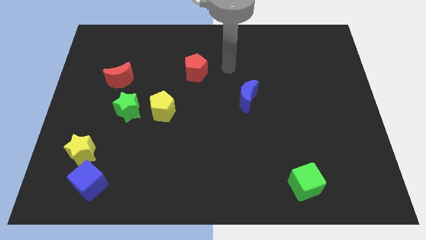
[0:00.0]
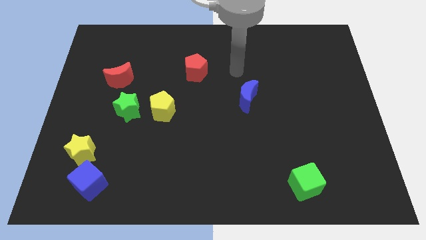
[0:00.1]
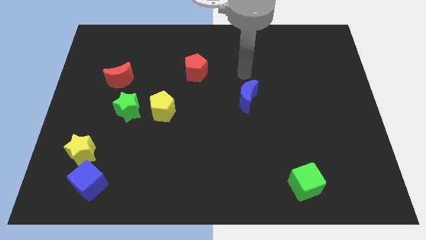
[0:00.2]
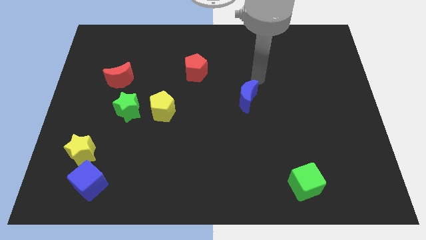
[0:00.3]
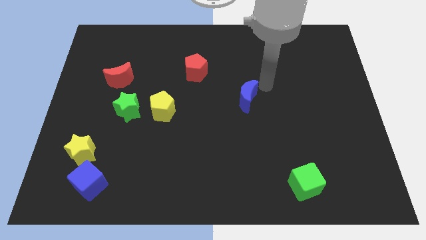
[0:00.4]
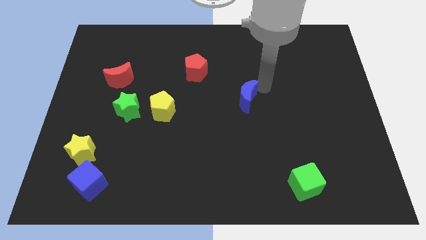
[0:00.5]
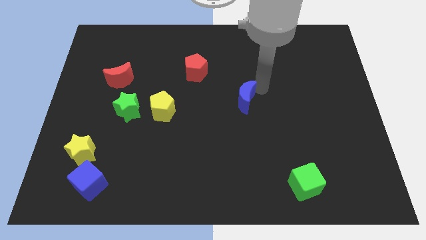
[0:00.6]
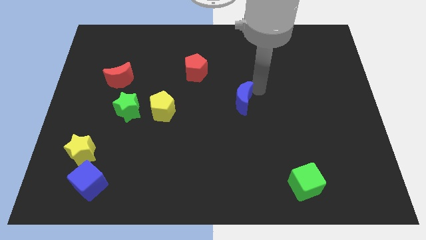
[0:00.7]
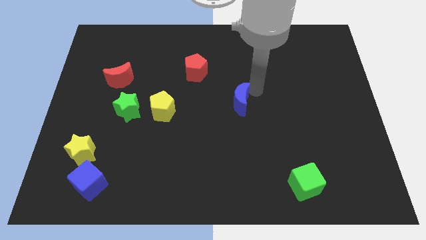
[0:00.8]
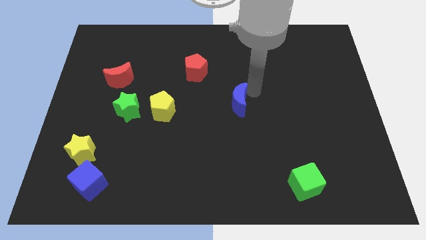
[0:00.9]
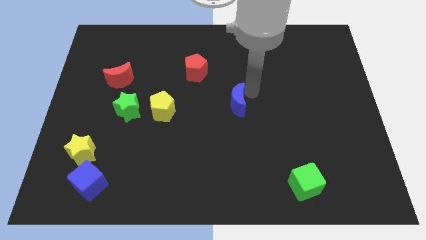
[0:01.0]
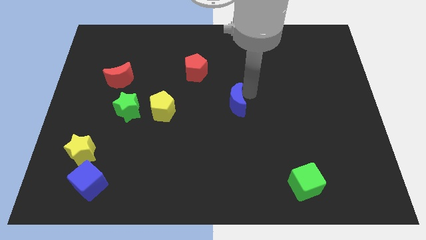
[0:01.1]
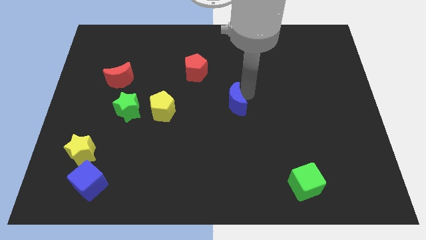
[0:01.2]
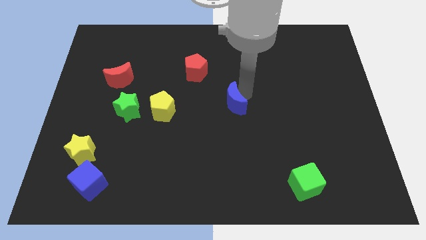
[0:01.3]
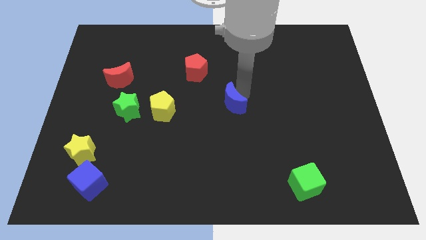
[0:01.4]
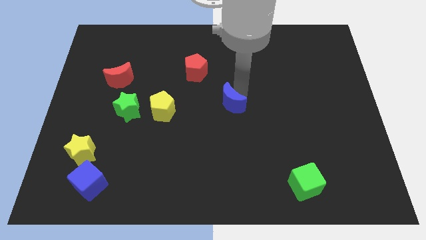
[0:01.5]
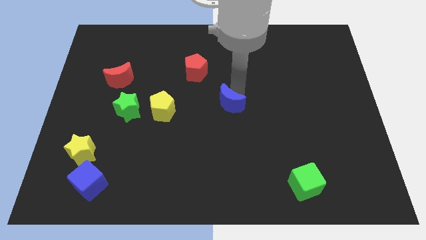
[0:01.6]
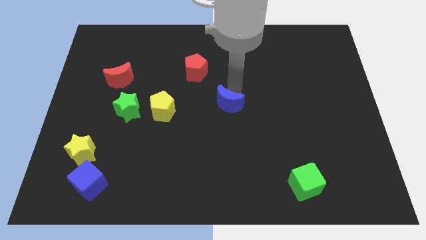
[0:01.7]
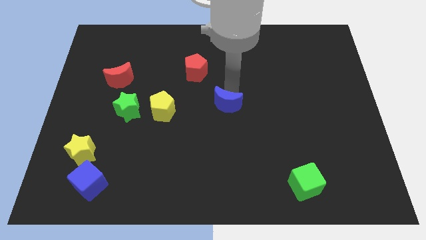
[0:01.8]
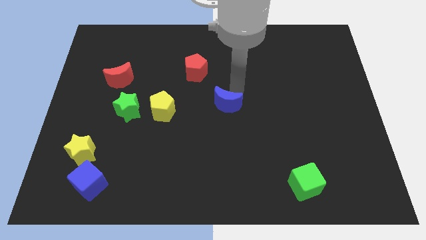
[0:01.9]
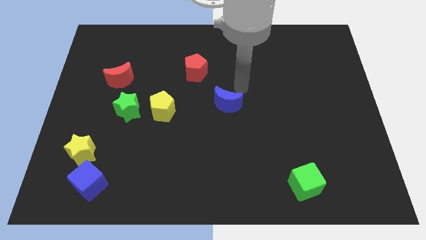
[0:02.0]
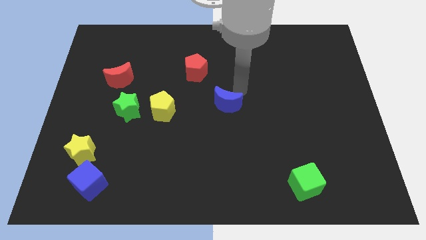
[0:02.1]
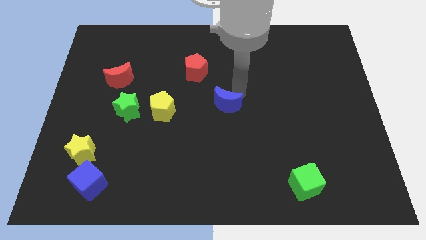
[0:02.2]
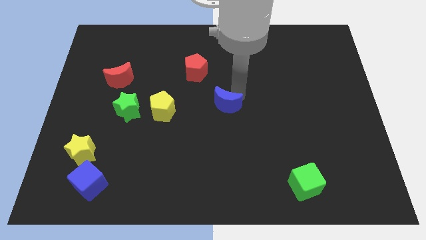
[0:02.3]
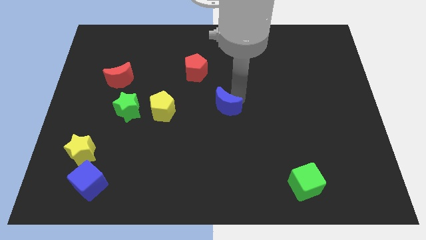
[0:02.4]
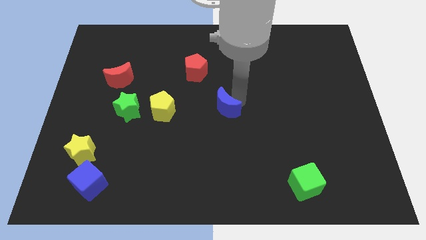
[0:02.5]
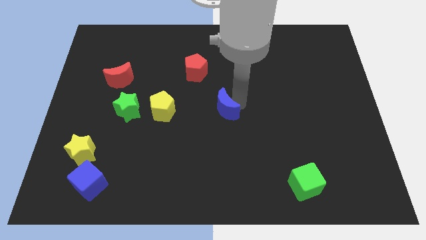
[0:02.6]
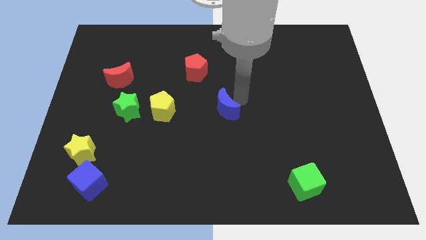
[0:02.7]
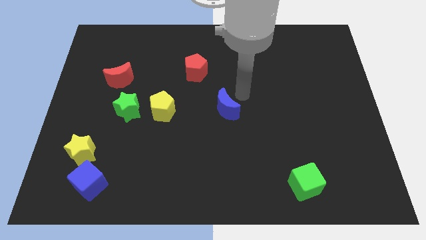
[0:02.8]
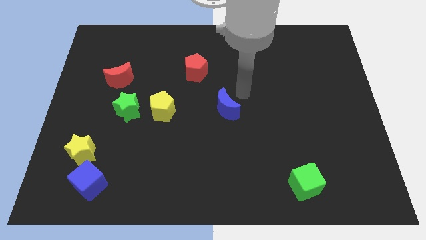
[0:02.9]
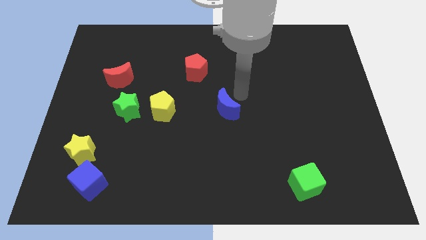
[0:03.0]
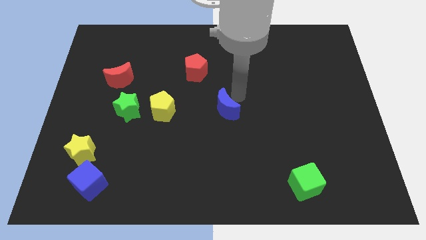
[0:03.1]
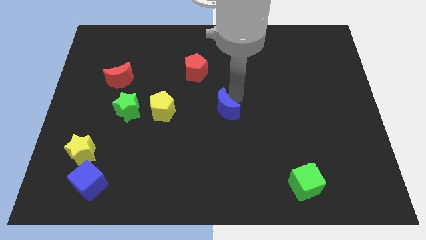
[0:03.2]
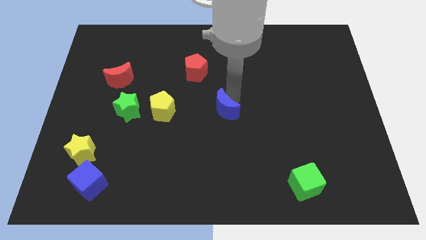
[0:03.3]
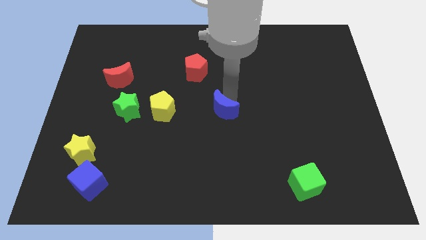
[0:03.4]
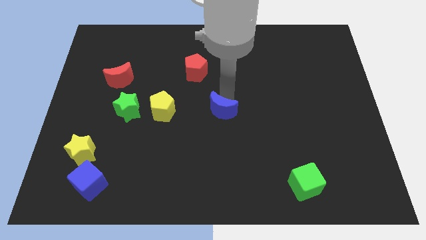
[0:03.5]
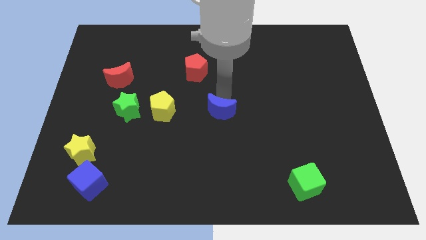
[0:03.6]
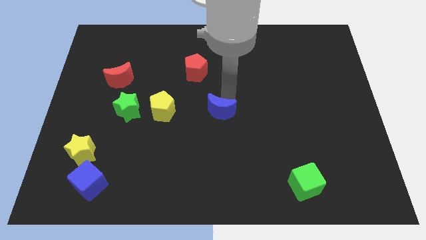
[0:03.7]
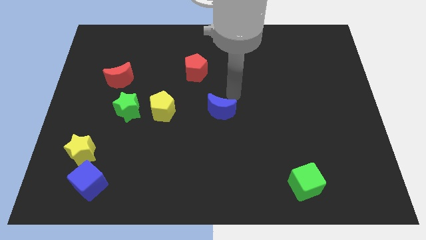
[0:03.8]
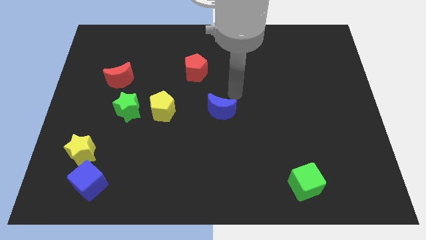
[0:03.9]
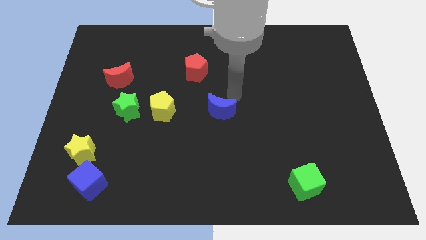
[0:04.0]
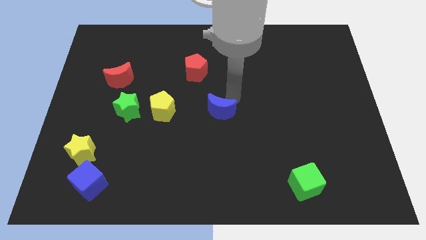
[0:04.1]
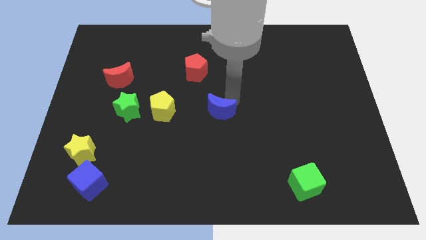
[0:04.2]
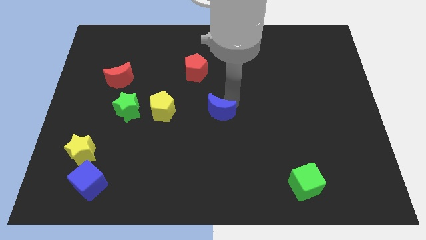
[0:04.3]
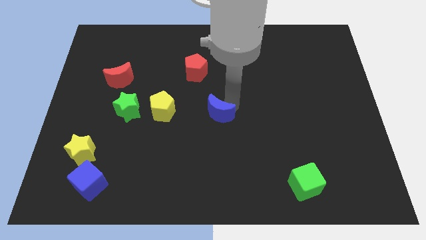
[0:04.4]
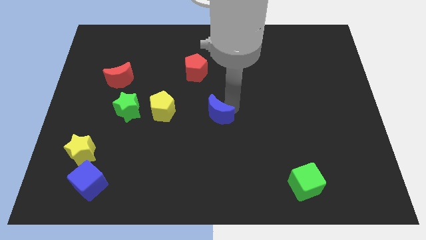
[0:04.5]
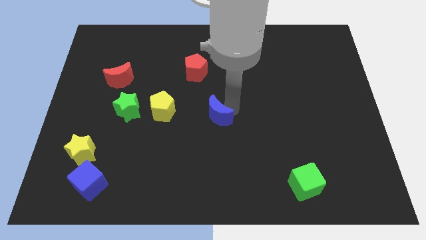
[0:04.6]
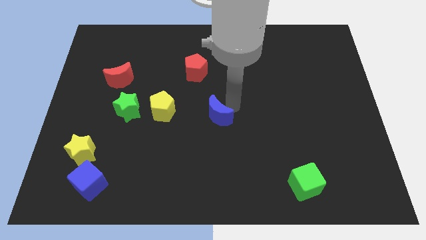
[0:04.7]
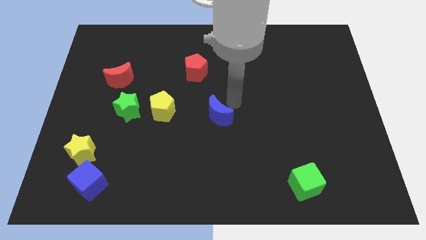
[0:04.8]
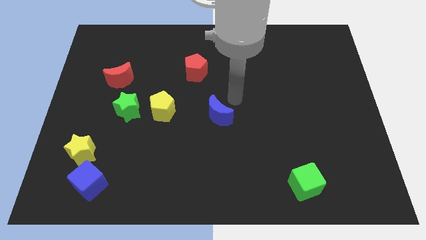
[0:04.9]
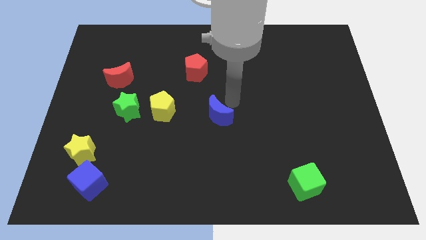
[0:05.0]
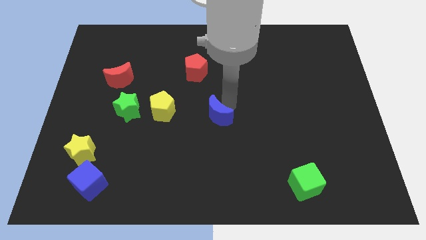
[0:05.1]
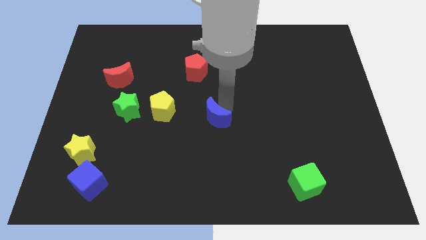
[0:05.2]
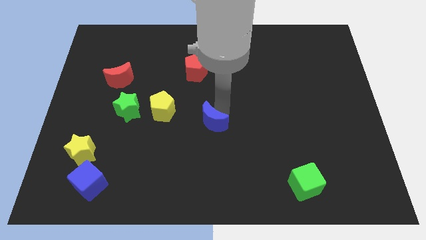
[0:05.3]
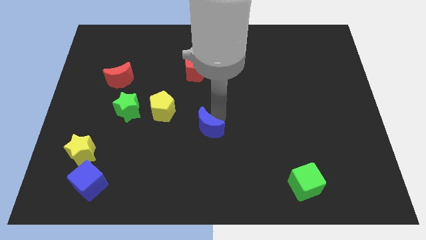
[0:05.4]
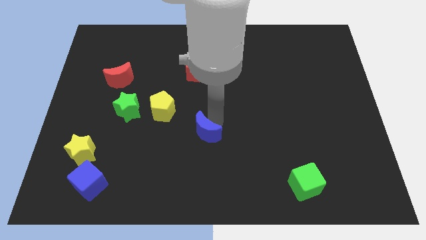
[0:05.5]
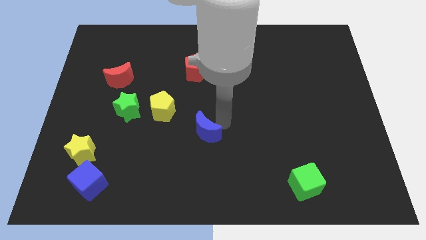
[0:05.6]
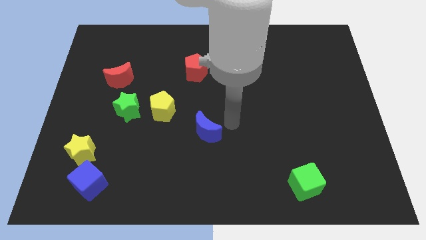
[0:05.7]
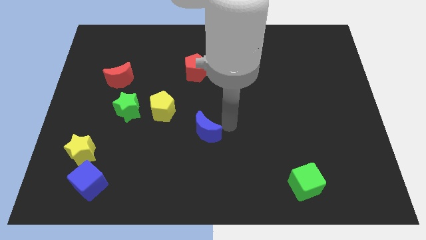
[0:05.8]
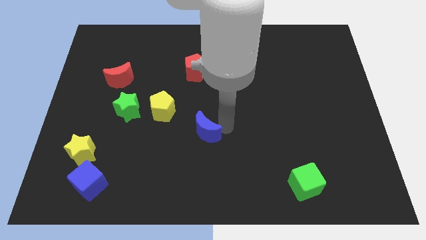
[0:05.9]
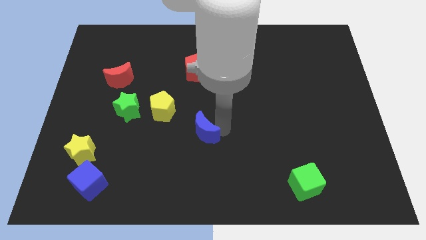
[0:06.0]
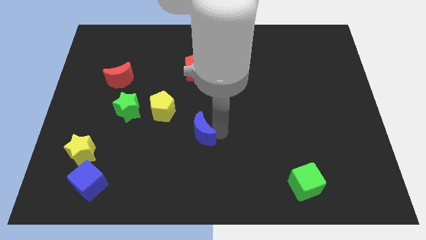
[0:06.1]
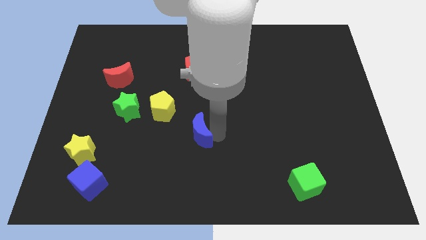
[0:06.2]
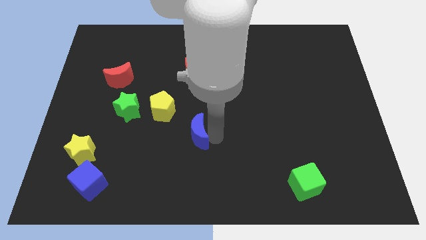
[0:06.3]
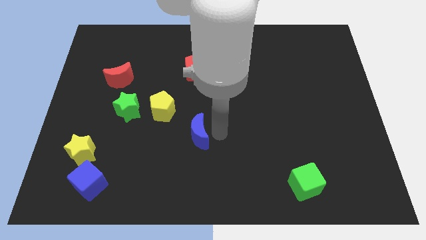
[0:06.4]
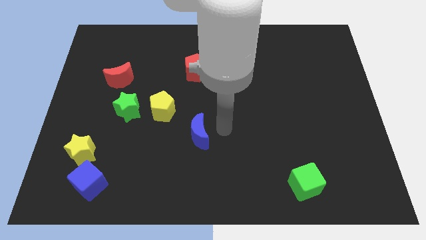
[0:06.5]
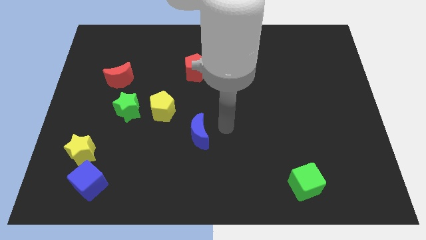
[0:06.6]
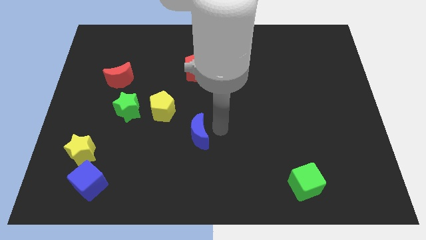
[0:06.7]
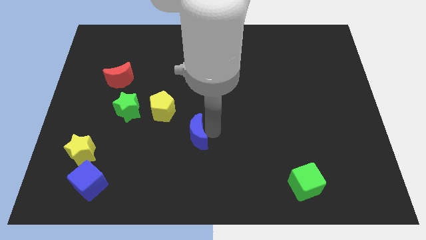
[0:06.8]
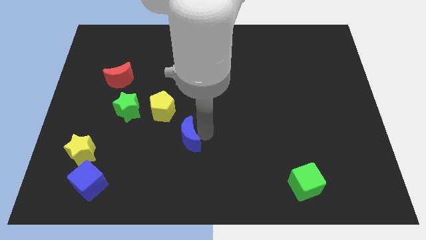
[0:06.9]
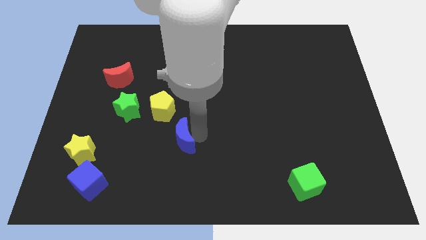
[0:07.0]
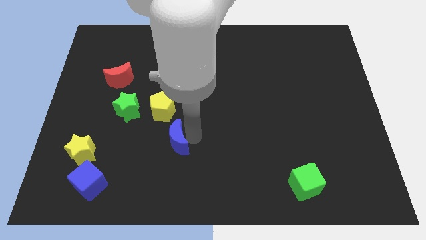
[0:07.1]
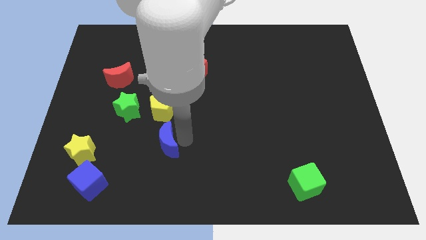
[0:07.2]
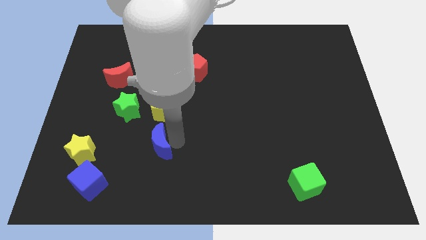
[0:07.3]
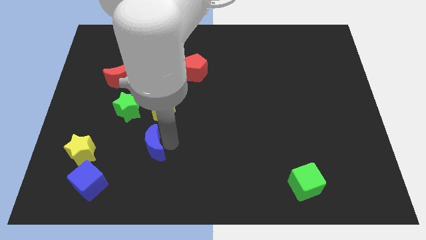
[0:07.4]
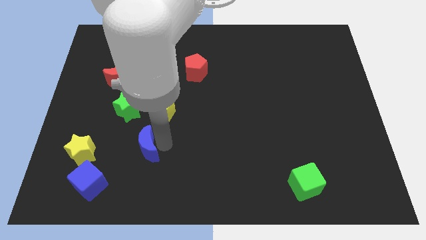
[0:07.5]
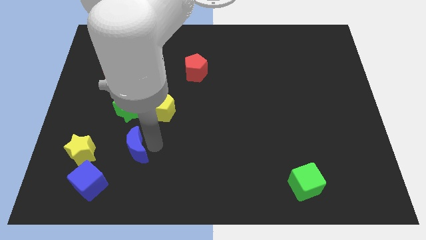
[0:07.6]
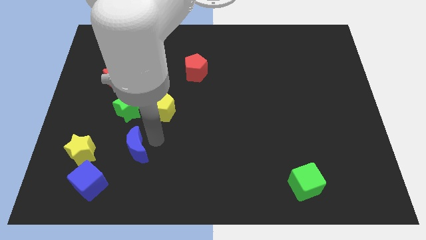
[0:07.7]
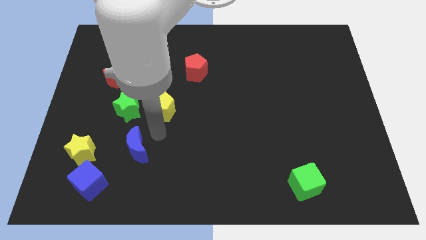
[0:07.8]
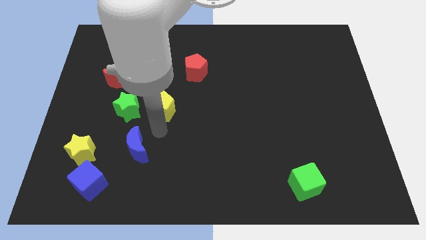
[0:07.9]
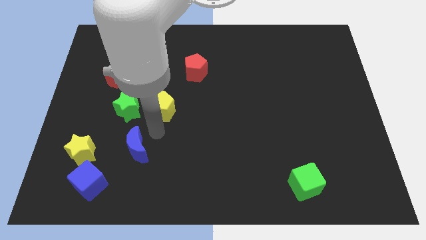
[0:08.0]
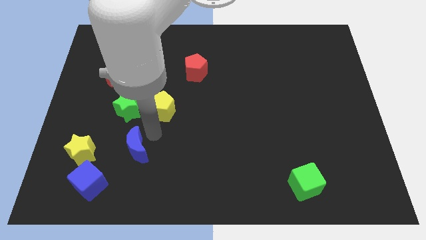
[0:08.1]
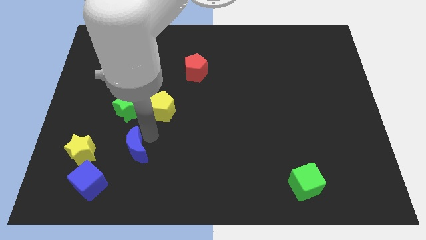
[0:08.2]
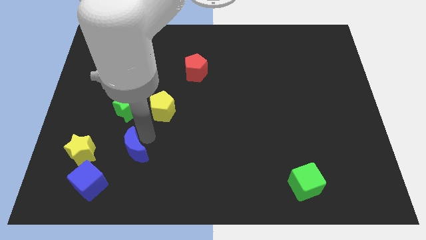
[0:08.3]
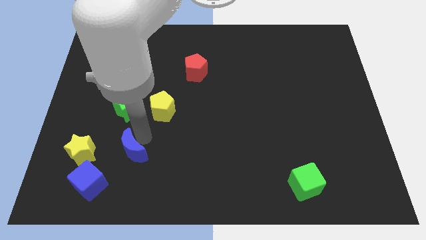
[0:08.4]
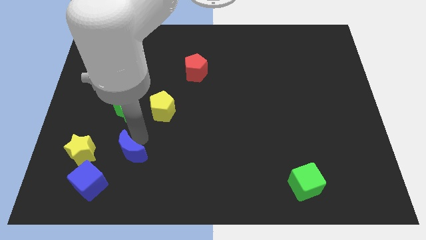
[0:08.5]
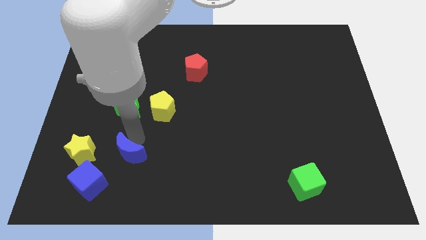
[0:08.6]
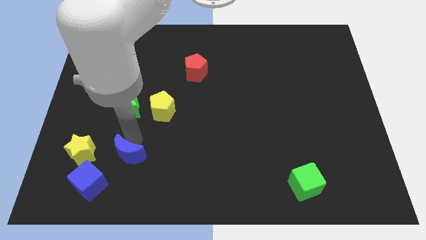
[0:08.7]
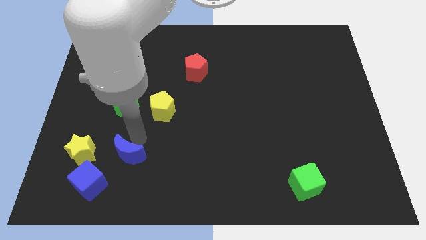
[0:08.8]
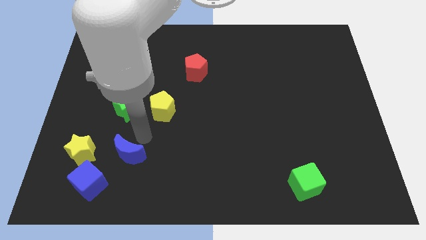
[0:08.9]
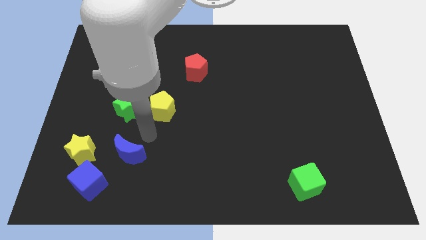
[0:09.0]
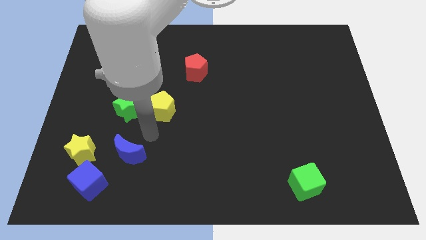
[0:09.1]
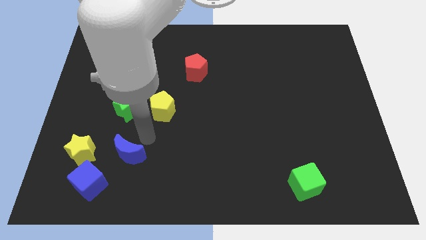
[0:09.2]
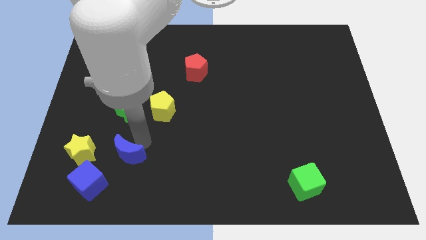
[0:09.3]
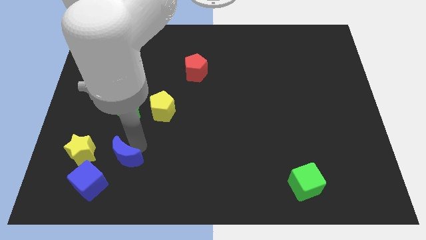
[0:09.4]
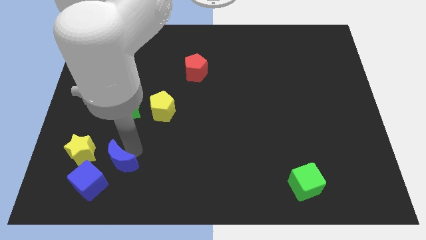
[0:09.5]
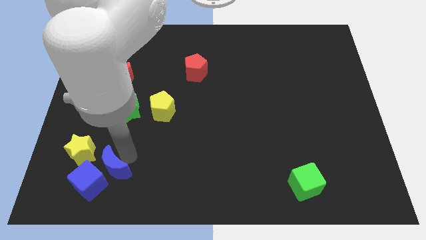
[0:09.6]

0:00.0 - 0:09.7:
move the blue moon to the blue cube
